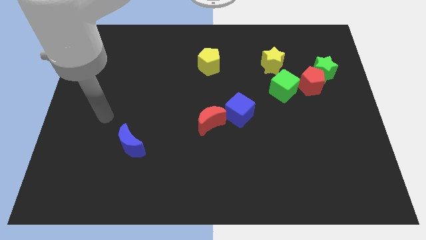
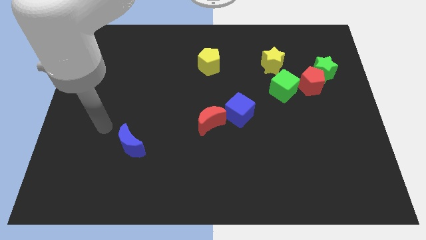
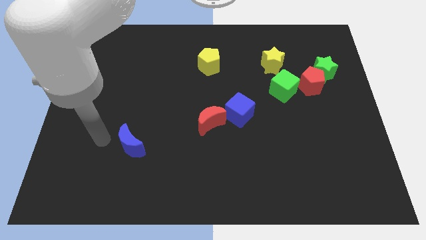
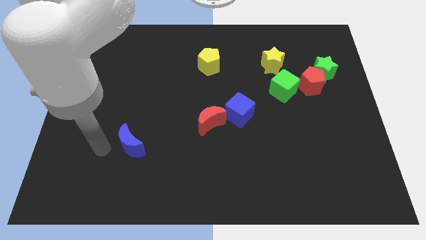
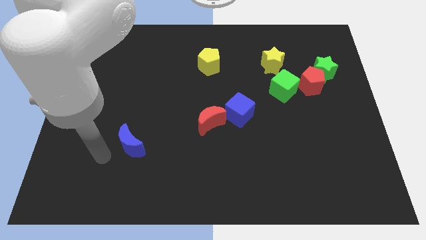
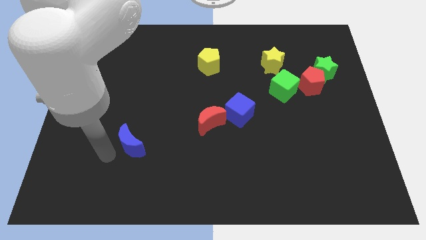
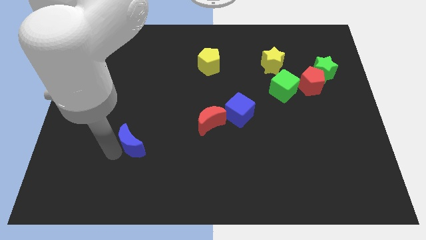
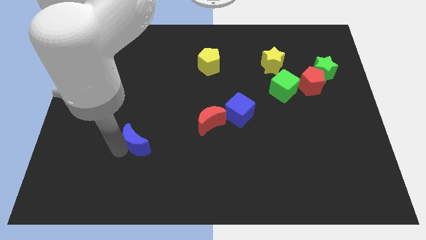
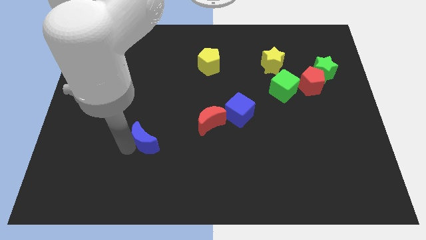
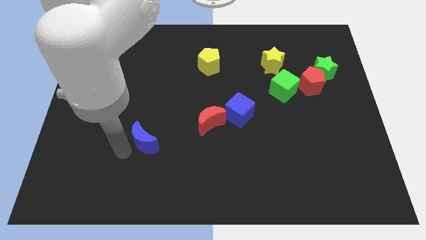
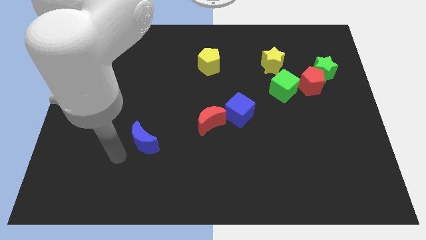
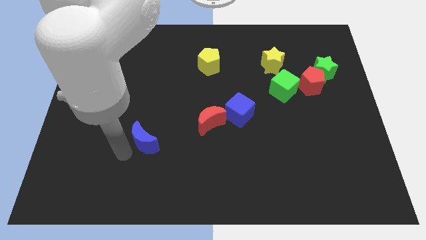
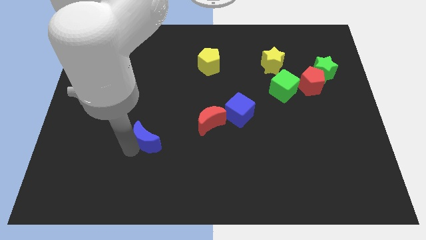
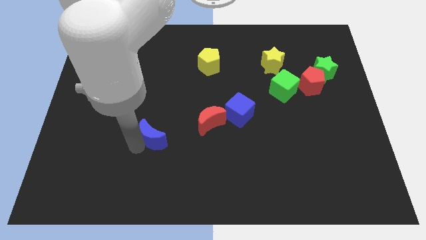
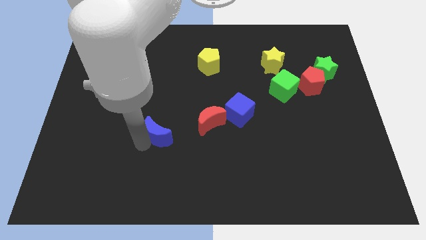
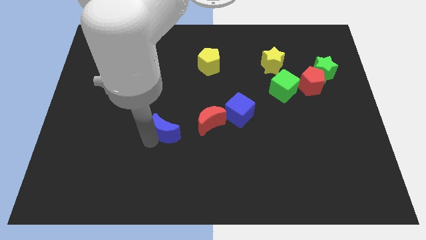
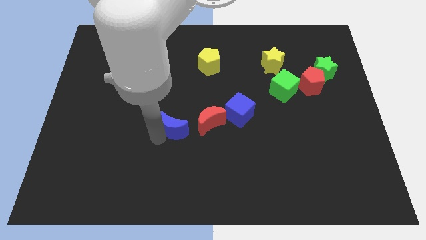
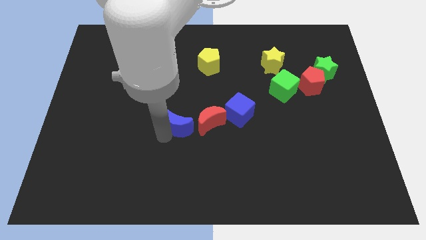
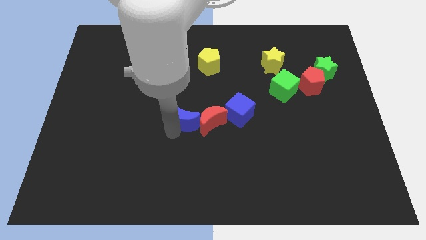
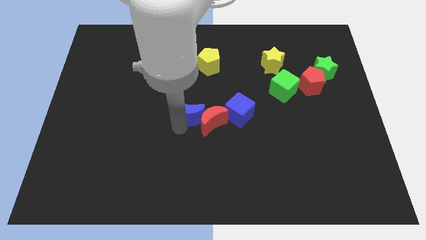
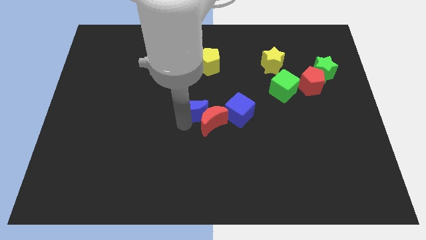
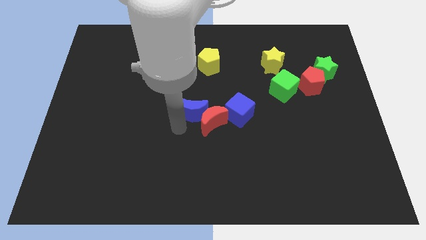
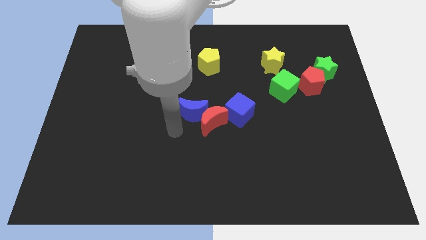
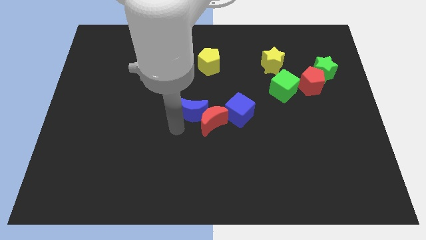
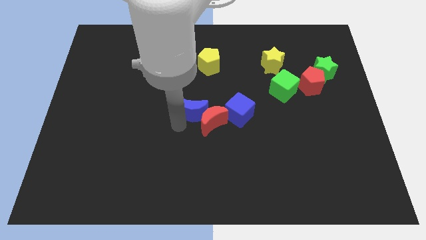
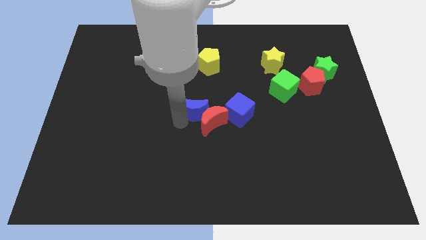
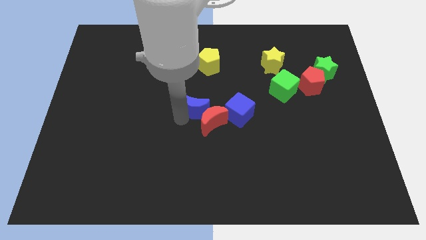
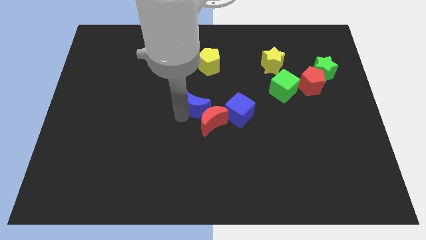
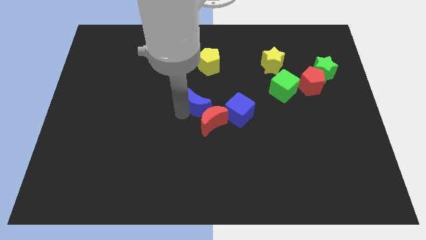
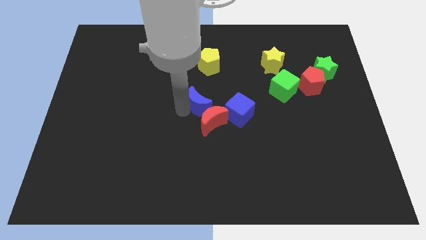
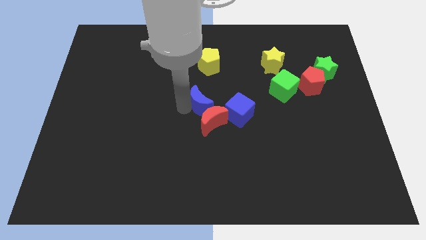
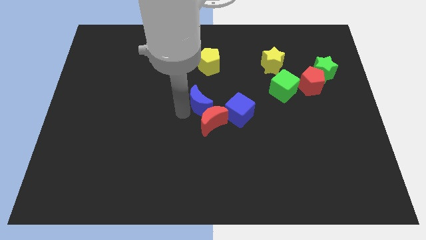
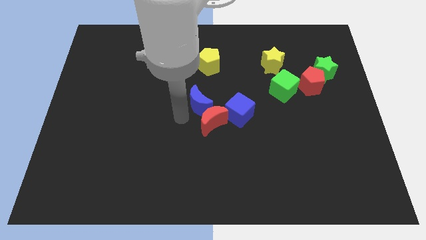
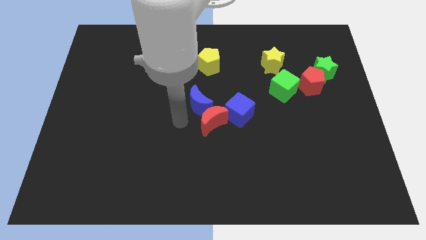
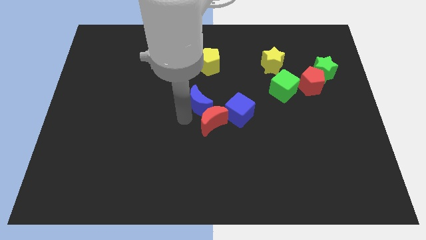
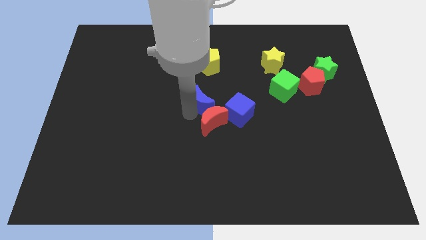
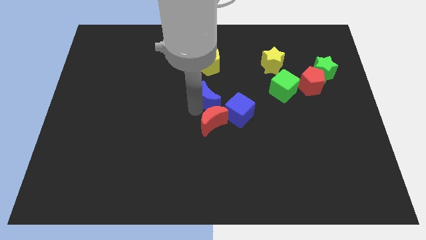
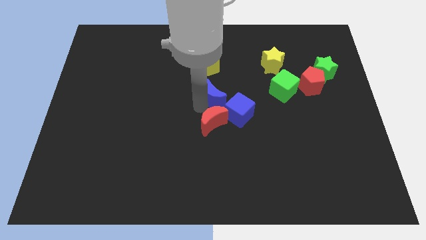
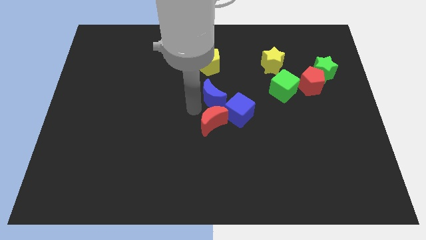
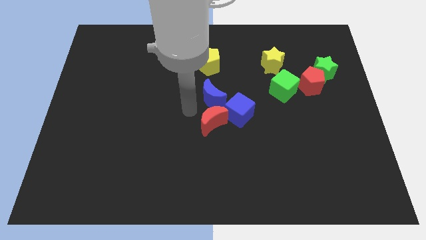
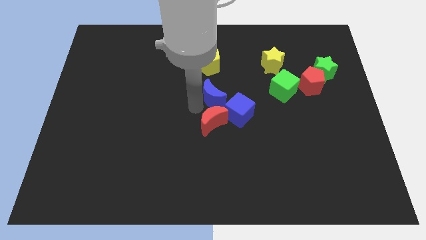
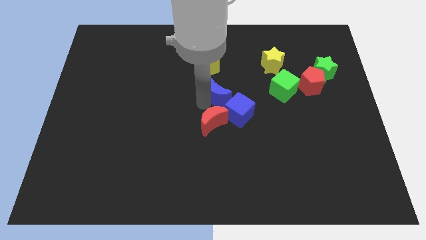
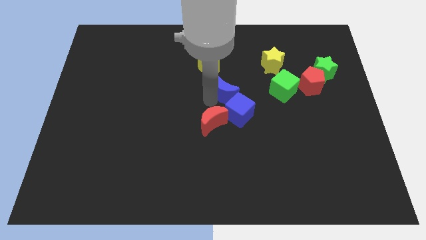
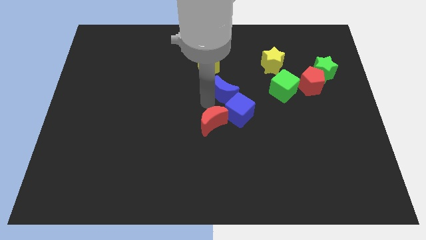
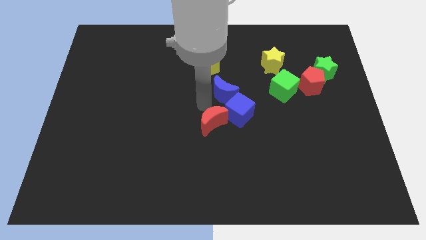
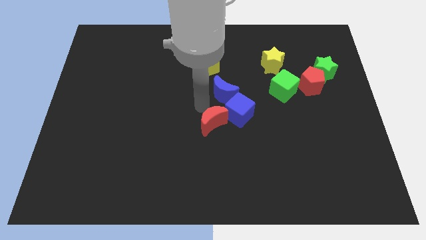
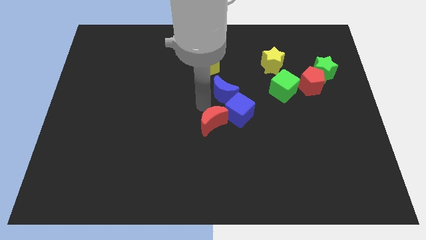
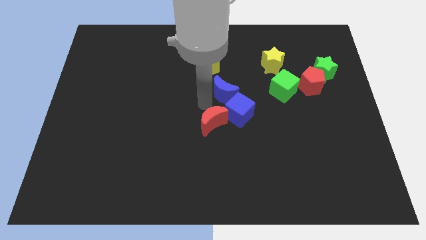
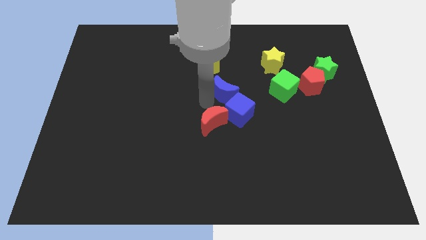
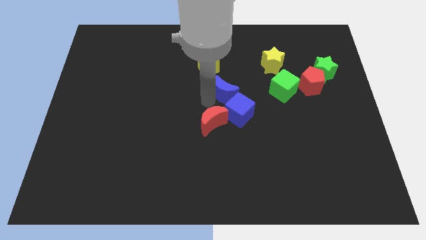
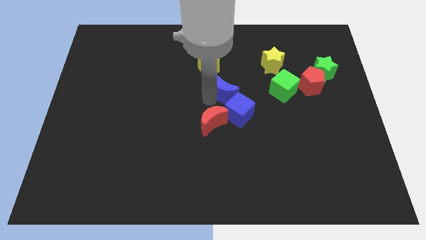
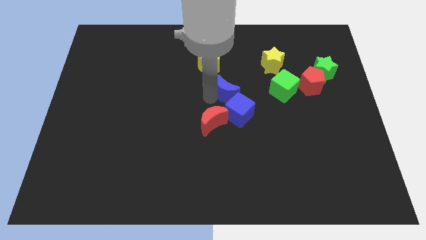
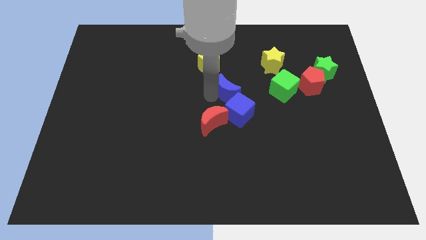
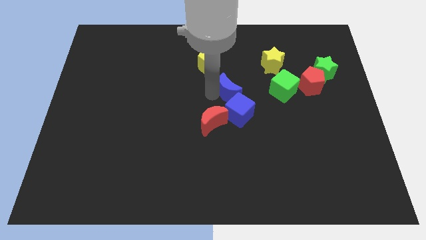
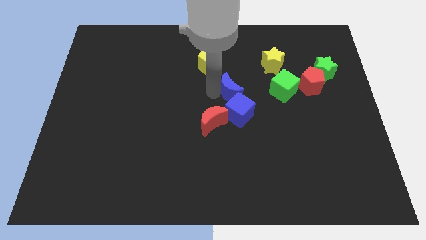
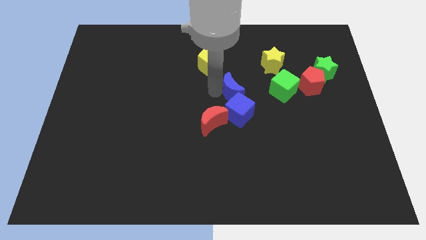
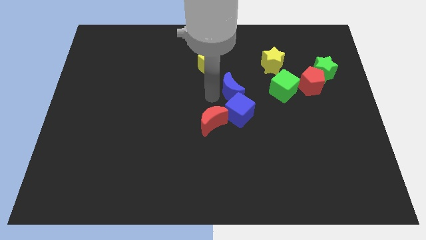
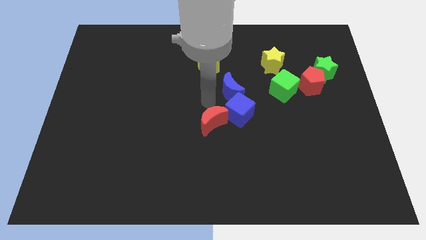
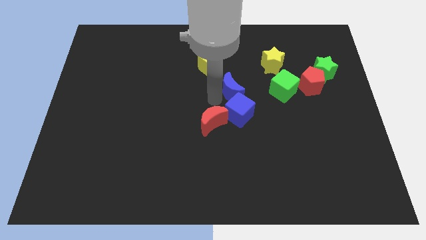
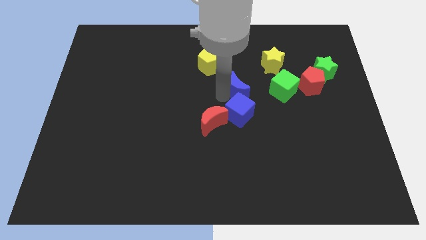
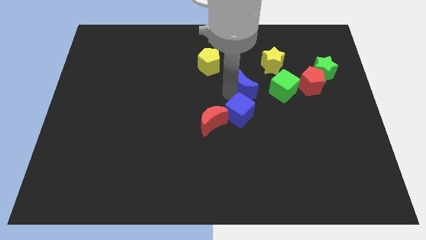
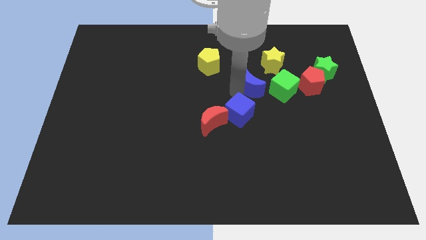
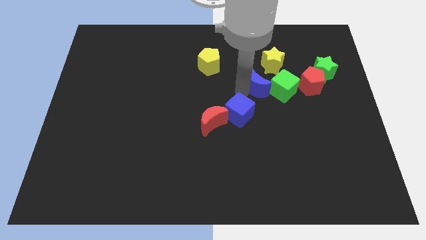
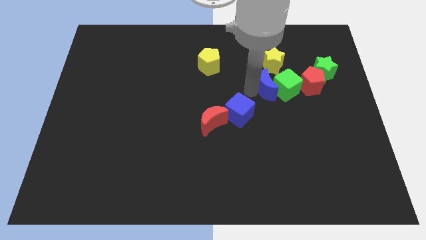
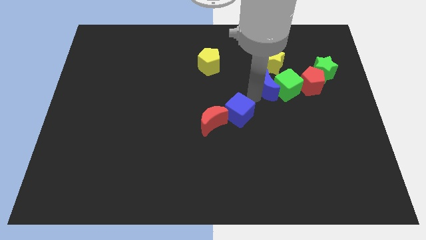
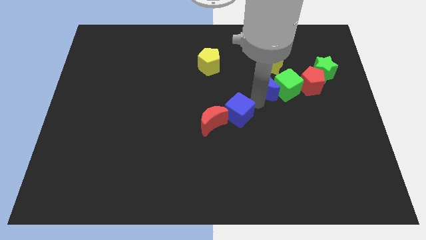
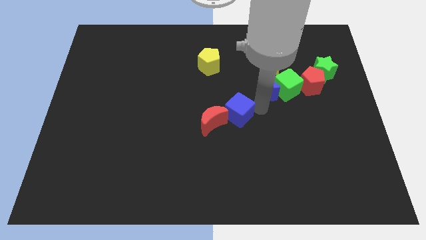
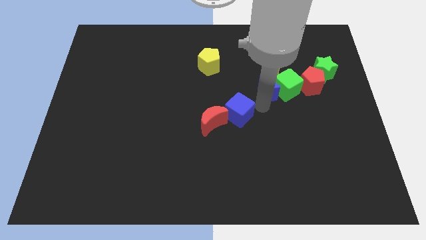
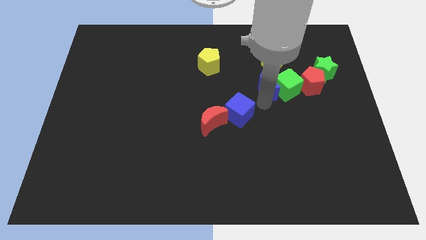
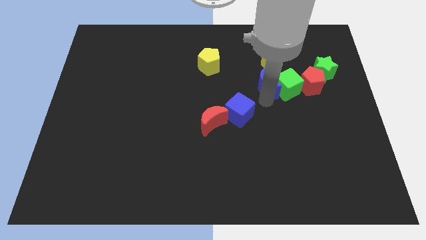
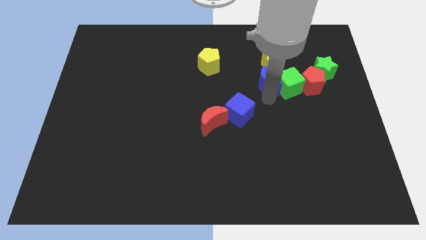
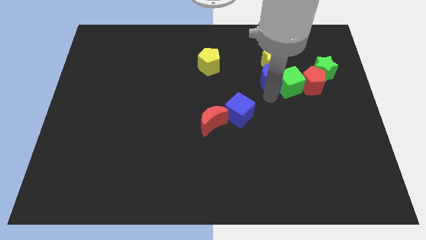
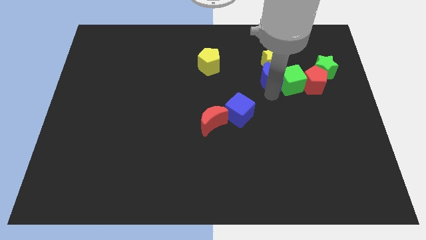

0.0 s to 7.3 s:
put the blue moon towards the yellow star

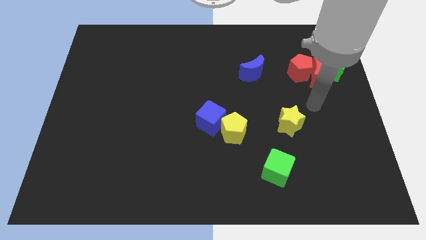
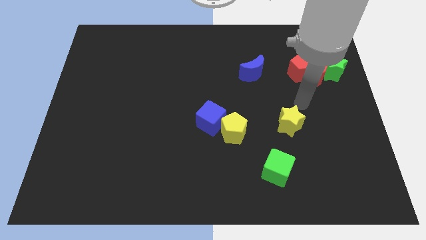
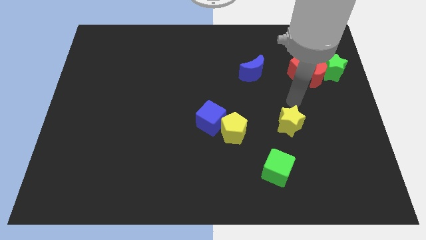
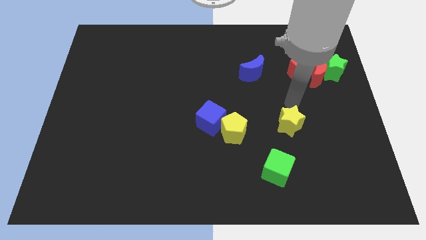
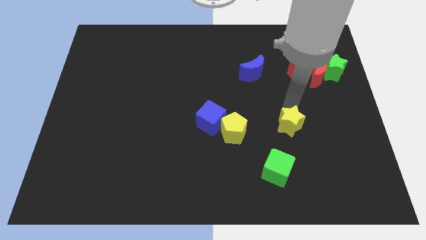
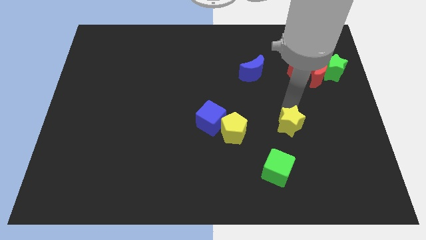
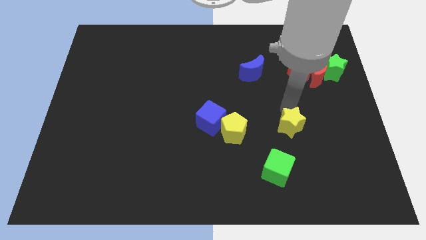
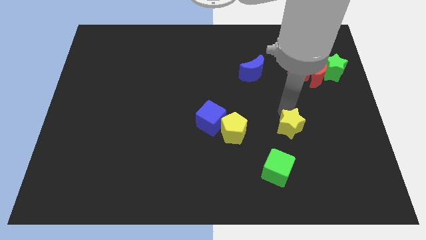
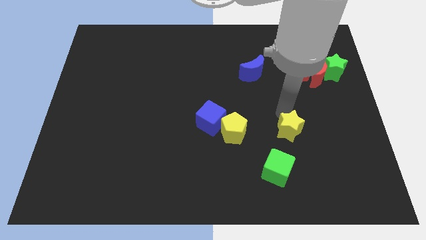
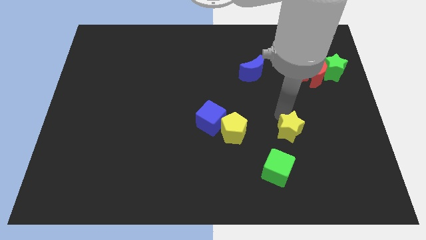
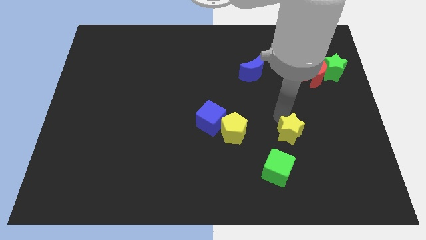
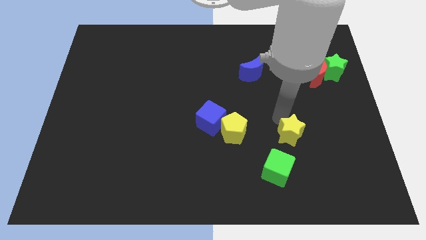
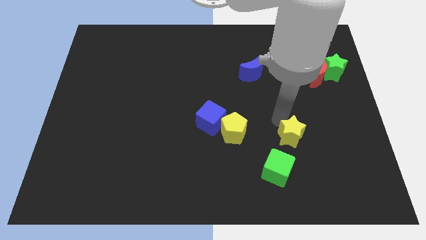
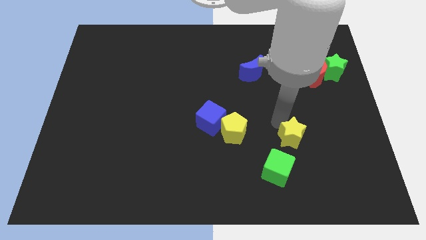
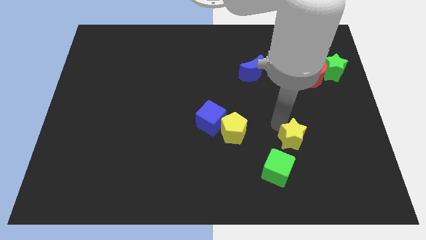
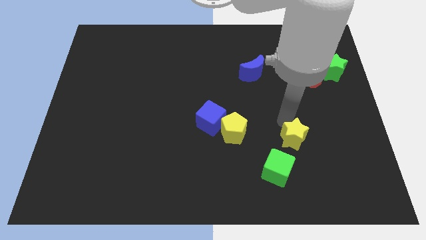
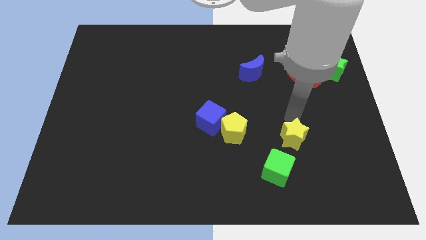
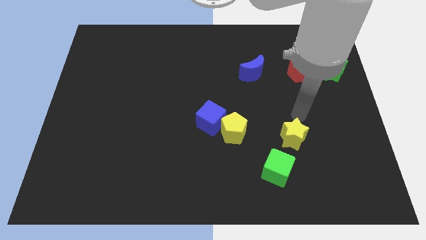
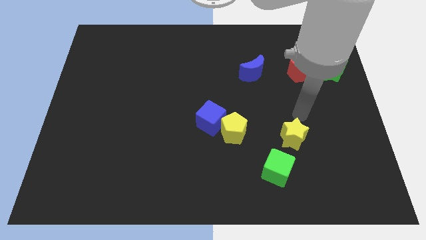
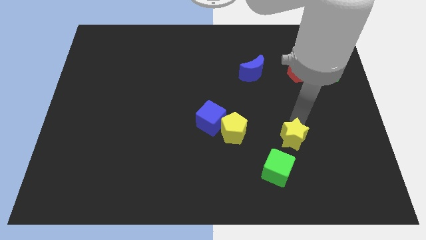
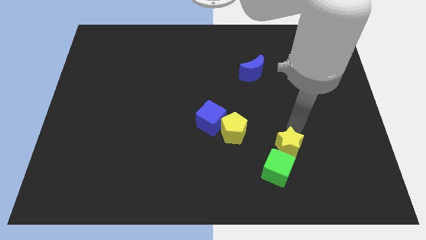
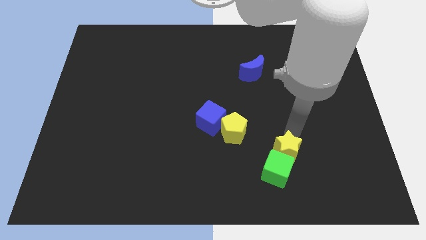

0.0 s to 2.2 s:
slide the yellow star next to the green cube
